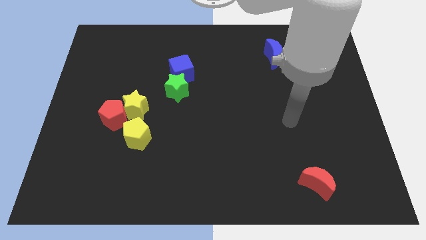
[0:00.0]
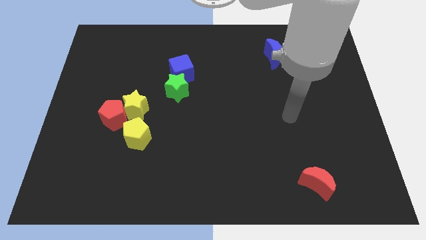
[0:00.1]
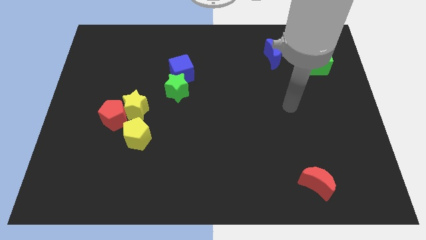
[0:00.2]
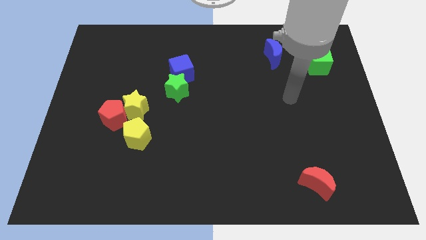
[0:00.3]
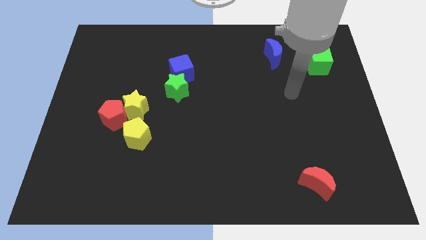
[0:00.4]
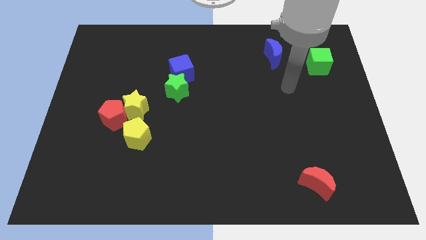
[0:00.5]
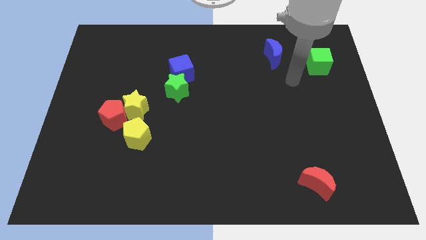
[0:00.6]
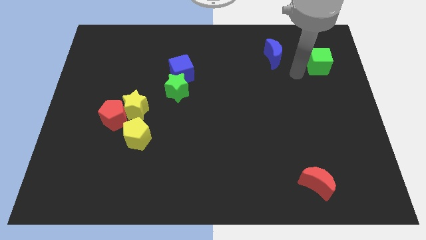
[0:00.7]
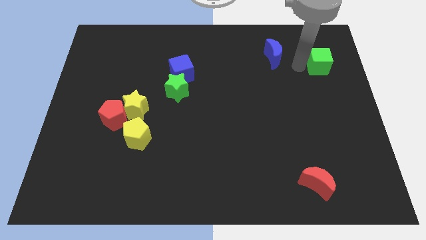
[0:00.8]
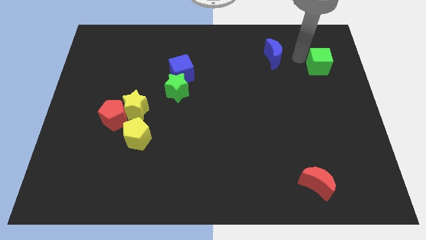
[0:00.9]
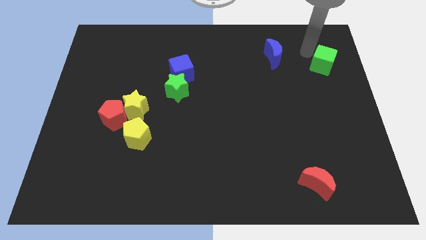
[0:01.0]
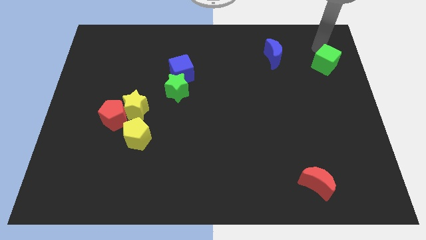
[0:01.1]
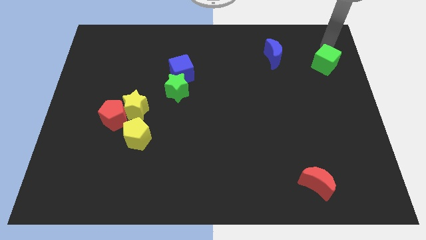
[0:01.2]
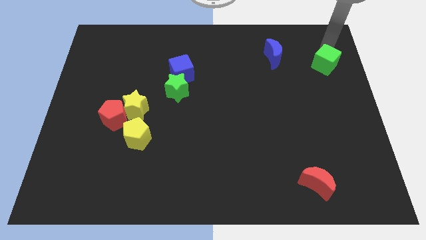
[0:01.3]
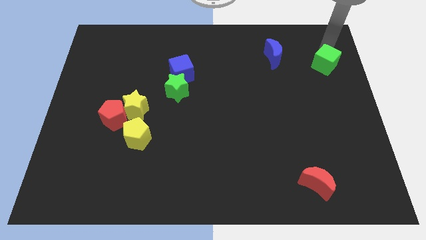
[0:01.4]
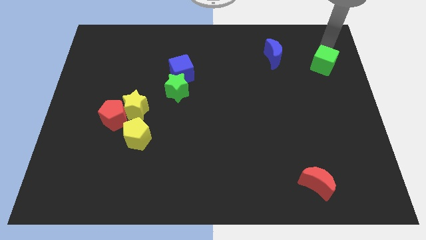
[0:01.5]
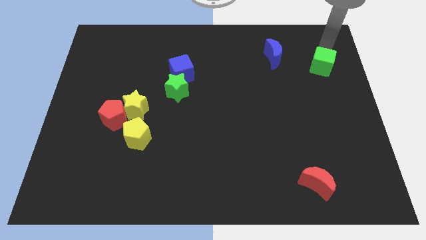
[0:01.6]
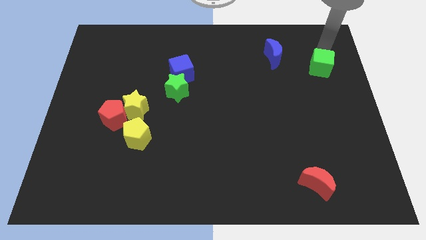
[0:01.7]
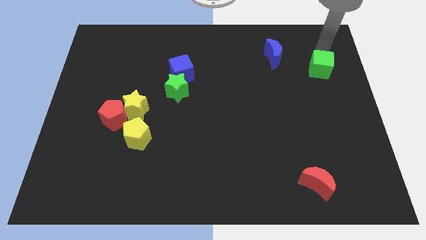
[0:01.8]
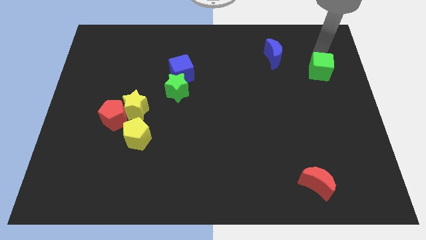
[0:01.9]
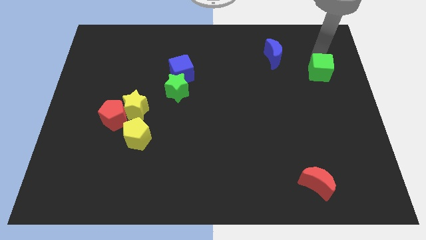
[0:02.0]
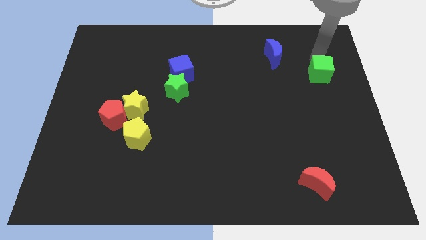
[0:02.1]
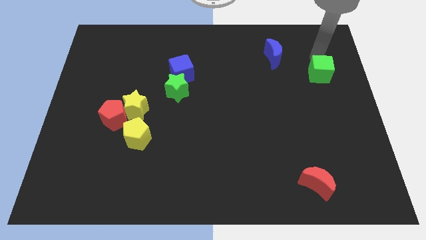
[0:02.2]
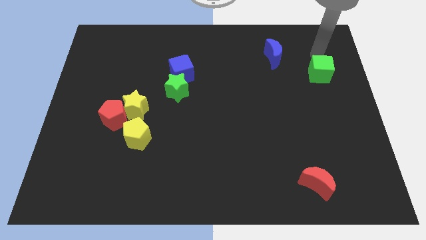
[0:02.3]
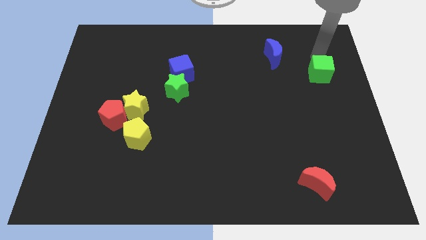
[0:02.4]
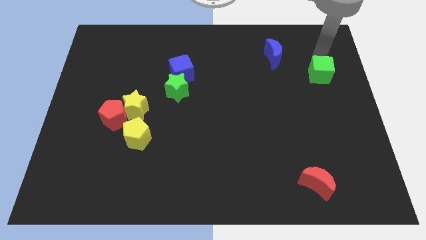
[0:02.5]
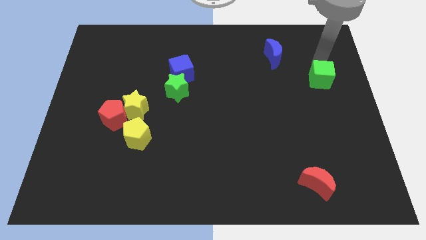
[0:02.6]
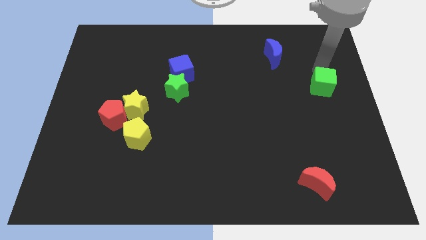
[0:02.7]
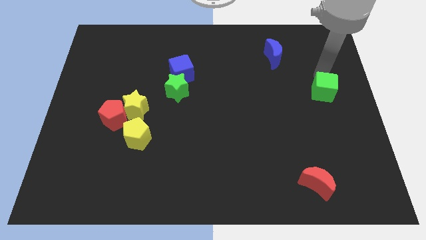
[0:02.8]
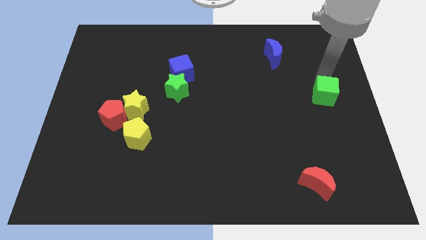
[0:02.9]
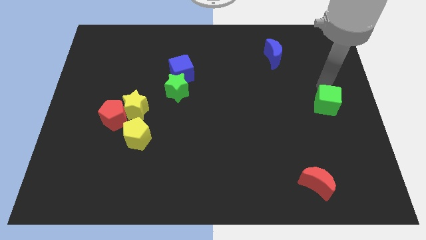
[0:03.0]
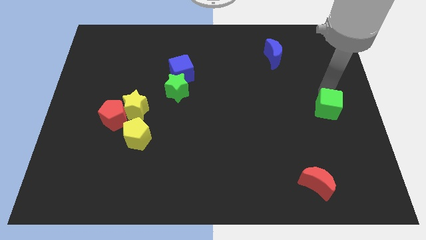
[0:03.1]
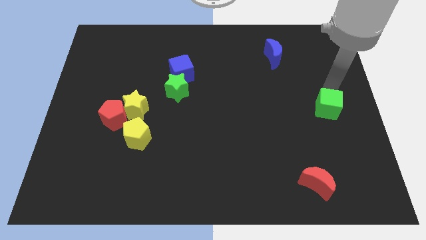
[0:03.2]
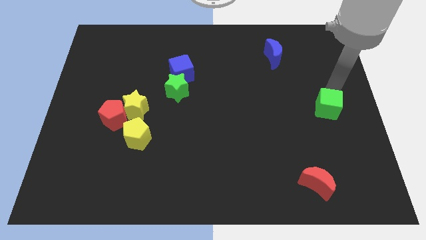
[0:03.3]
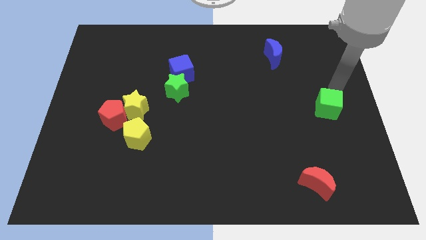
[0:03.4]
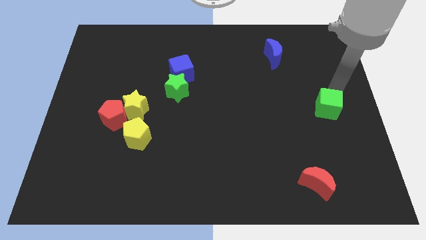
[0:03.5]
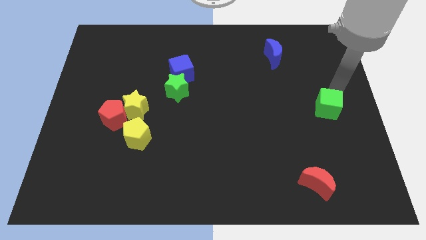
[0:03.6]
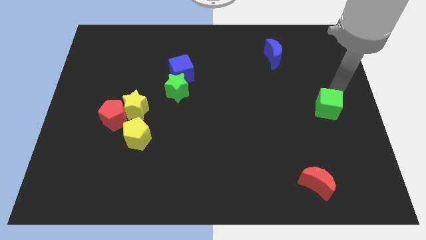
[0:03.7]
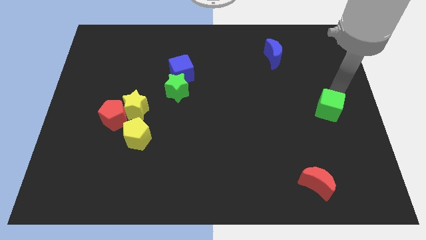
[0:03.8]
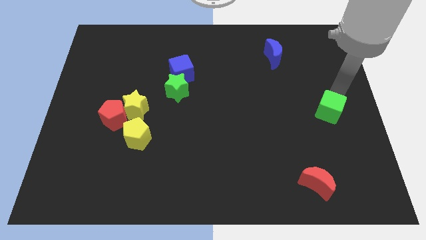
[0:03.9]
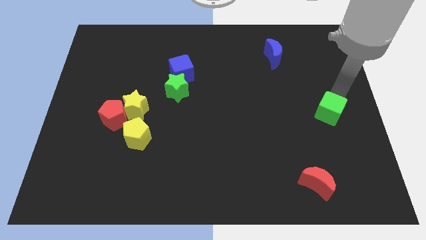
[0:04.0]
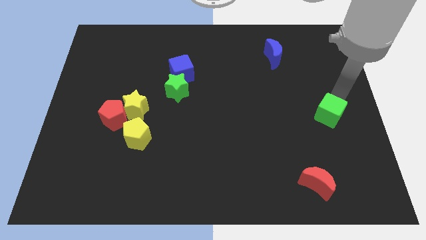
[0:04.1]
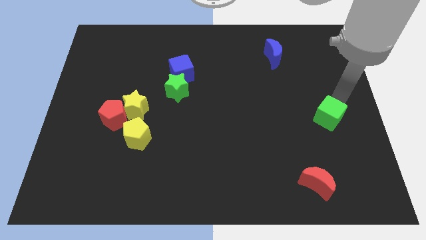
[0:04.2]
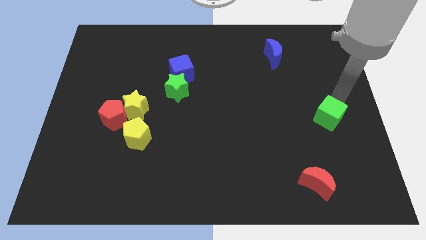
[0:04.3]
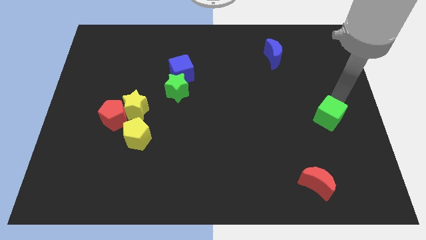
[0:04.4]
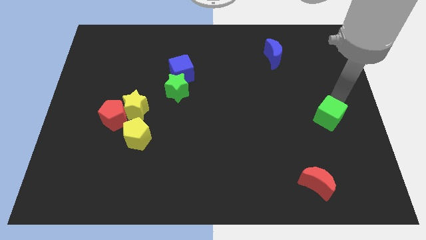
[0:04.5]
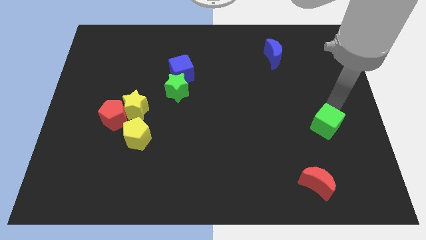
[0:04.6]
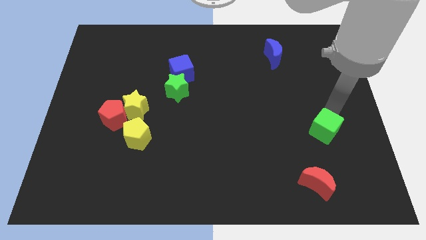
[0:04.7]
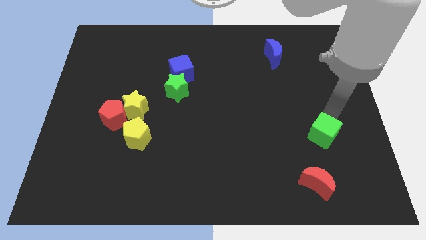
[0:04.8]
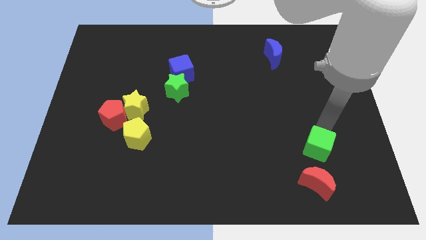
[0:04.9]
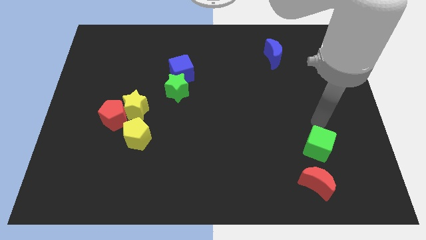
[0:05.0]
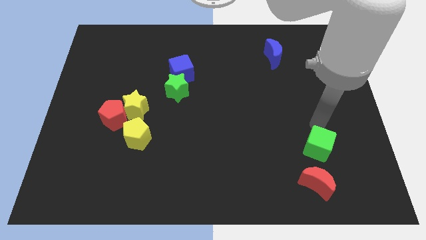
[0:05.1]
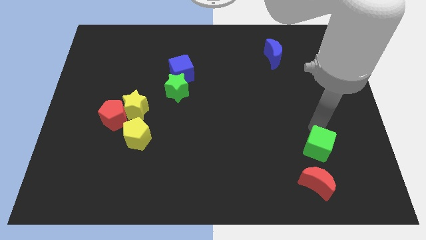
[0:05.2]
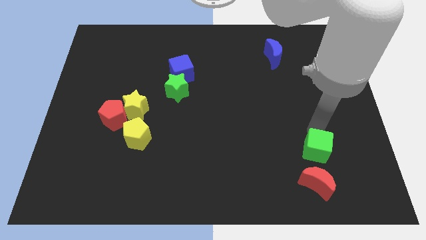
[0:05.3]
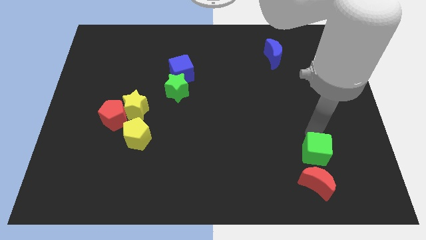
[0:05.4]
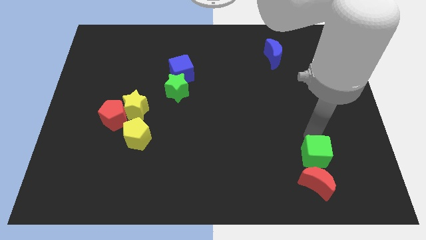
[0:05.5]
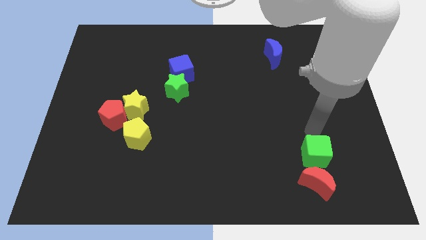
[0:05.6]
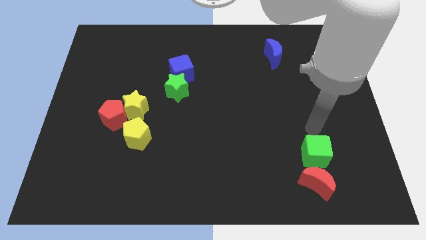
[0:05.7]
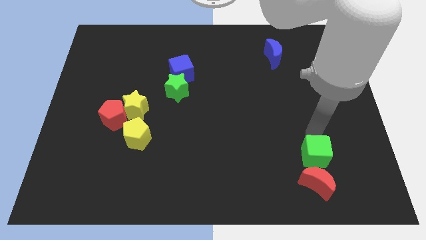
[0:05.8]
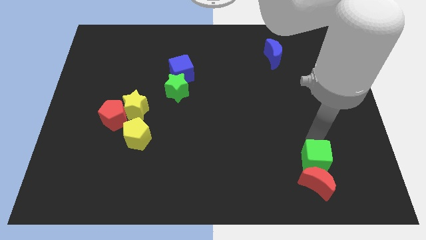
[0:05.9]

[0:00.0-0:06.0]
push the green cube next to the red moon

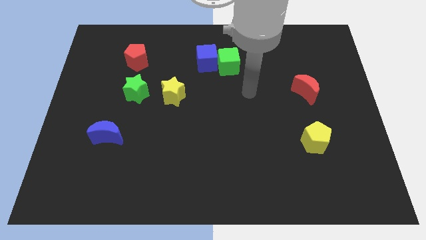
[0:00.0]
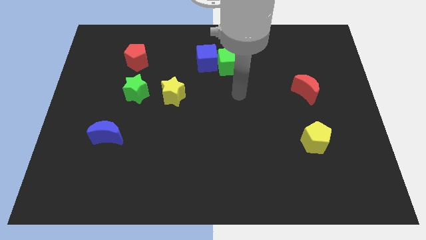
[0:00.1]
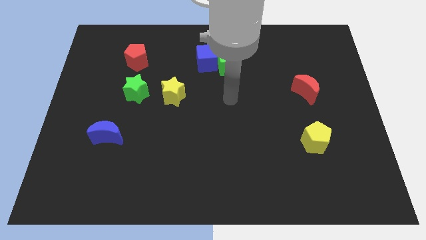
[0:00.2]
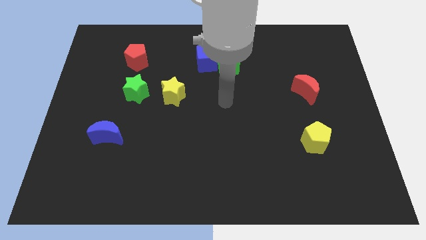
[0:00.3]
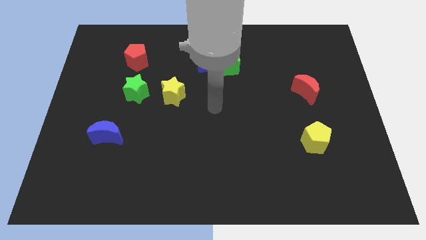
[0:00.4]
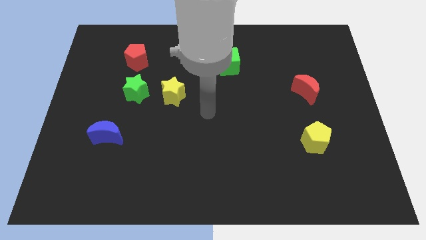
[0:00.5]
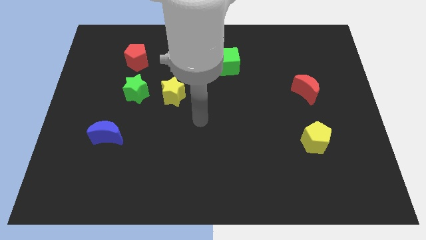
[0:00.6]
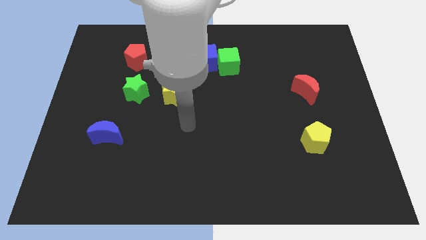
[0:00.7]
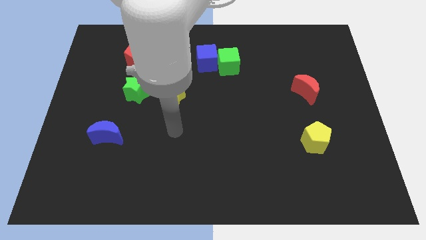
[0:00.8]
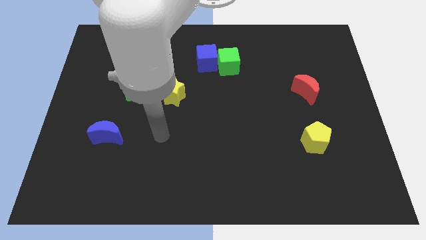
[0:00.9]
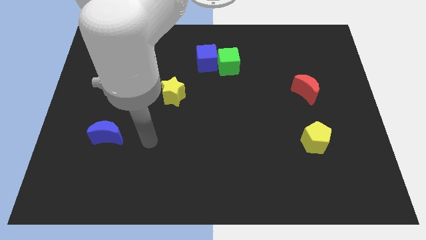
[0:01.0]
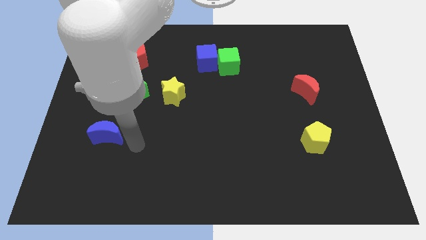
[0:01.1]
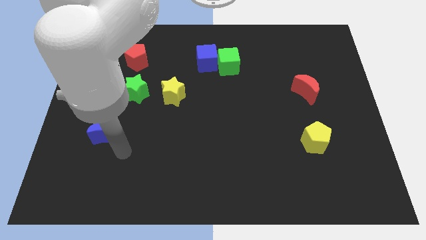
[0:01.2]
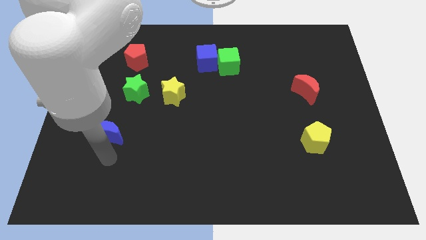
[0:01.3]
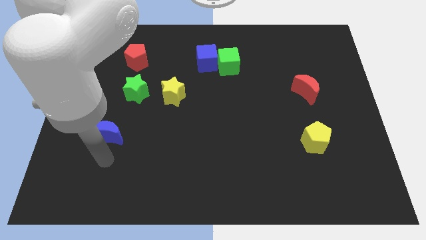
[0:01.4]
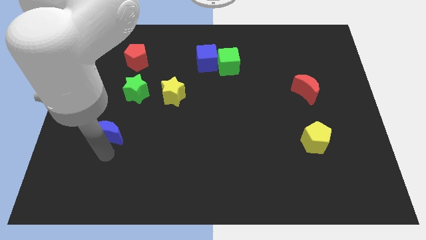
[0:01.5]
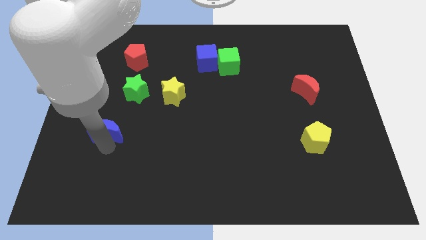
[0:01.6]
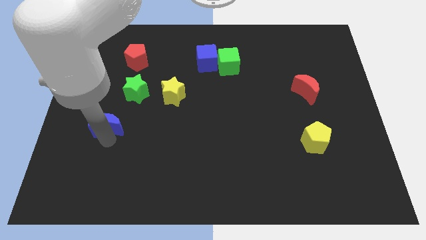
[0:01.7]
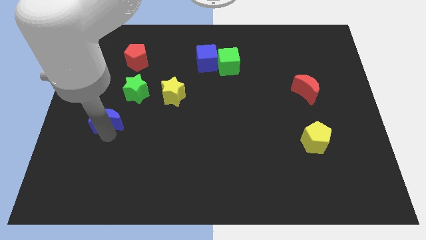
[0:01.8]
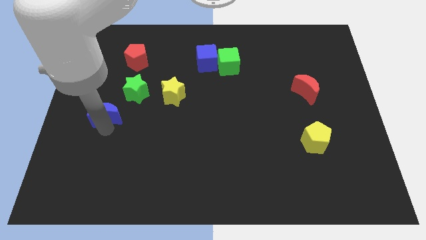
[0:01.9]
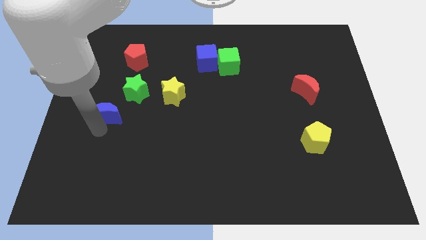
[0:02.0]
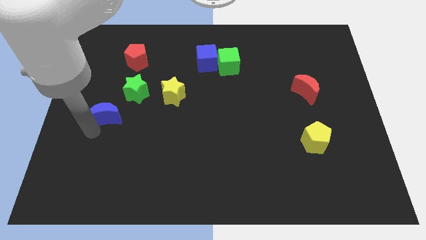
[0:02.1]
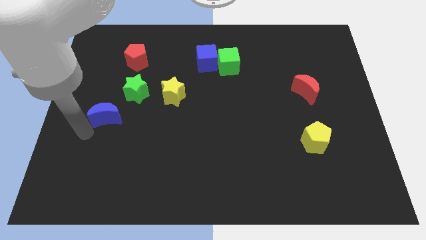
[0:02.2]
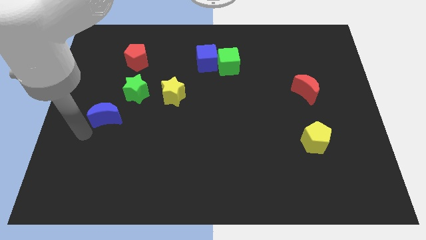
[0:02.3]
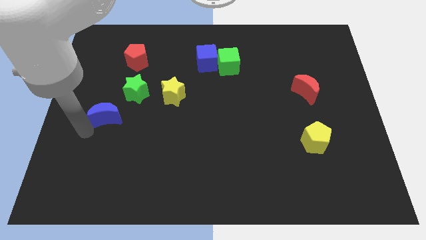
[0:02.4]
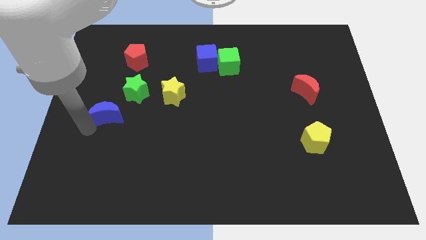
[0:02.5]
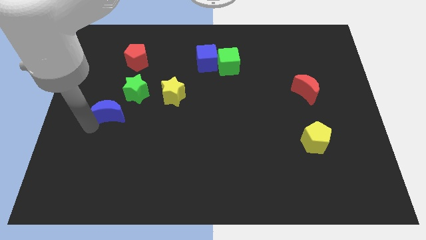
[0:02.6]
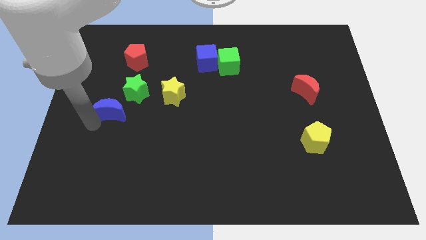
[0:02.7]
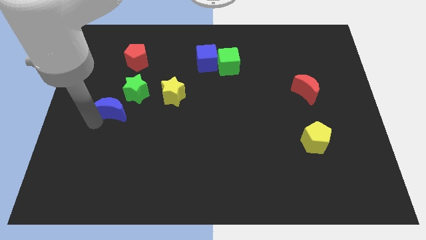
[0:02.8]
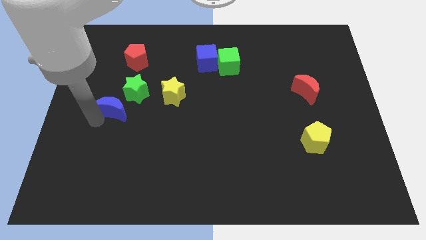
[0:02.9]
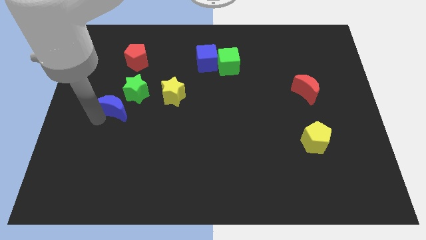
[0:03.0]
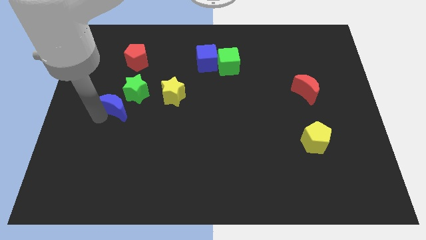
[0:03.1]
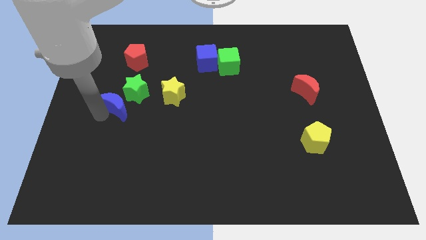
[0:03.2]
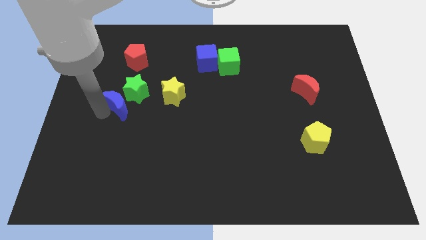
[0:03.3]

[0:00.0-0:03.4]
put the blue moon towards the green star
